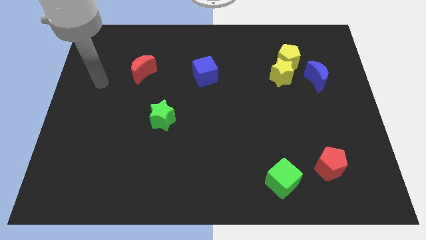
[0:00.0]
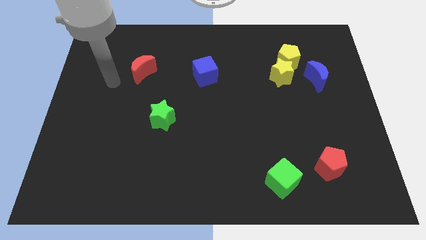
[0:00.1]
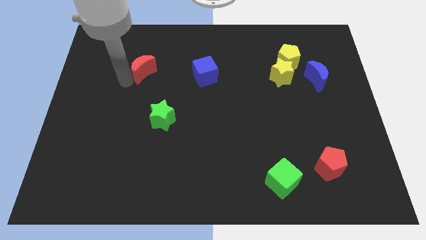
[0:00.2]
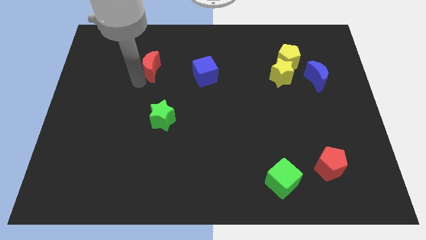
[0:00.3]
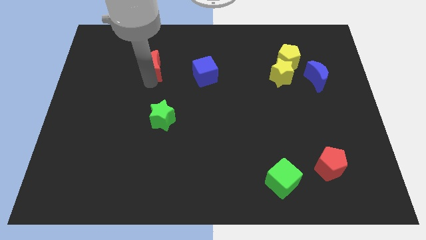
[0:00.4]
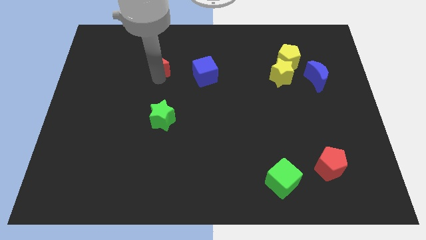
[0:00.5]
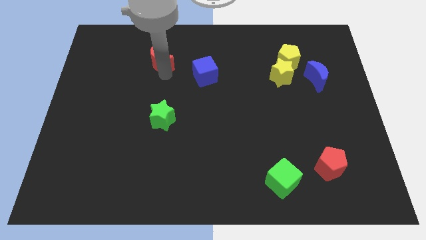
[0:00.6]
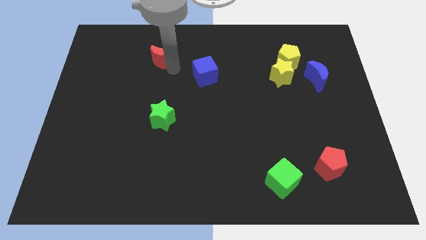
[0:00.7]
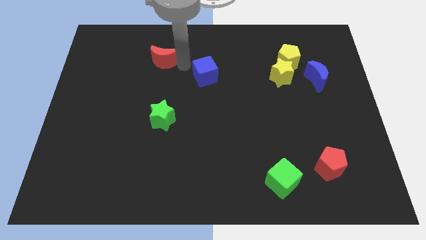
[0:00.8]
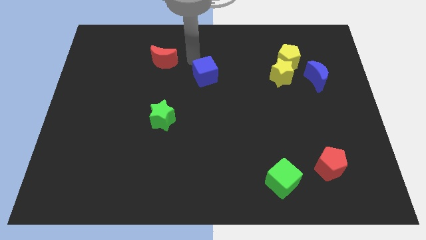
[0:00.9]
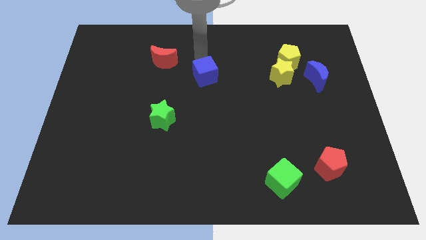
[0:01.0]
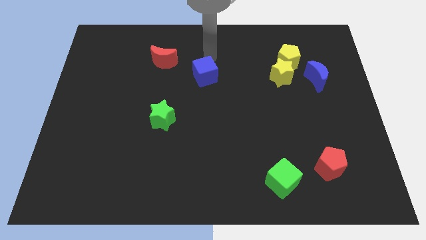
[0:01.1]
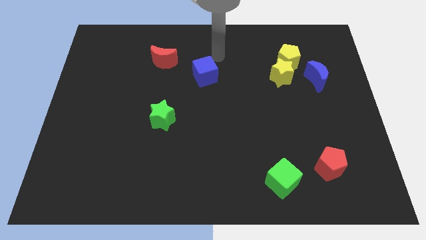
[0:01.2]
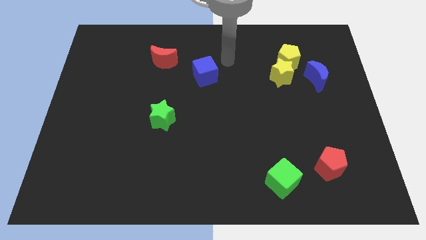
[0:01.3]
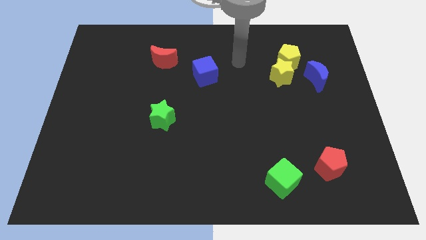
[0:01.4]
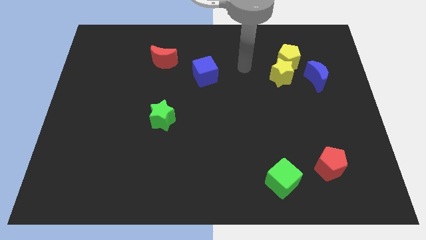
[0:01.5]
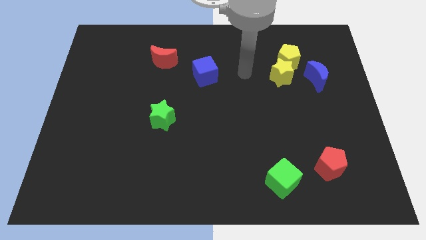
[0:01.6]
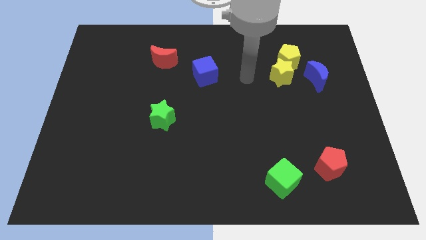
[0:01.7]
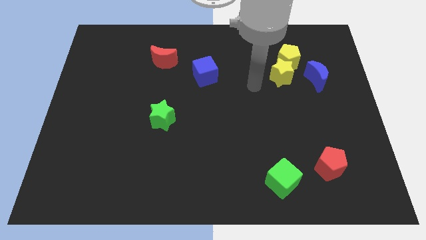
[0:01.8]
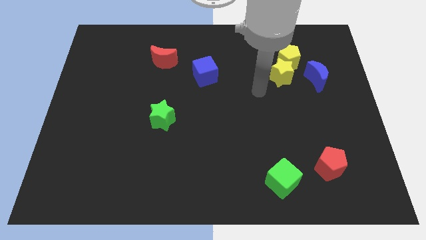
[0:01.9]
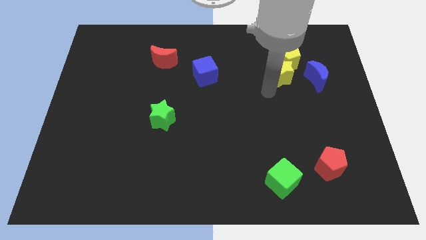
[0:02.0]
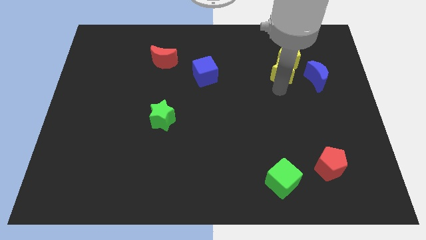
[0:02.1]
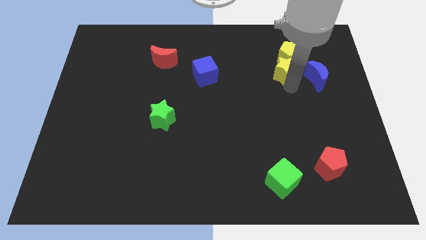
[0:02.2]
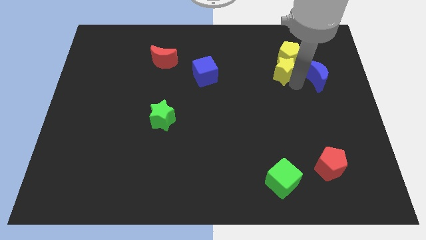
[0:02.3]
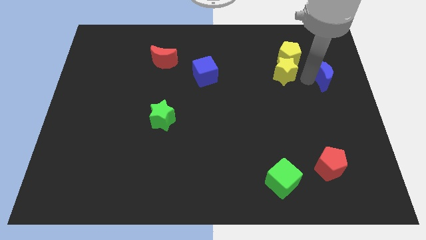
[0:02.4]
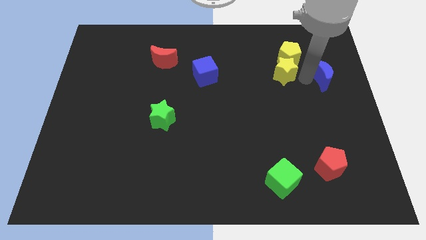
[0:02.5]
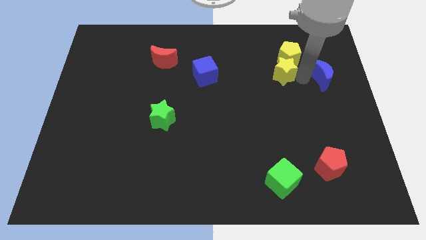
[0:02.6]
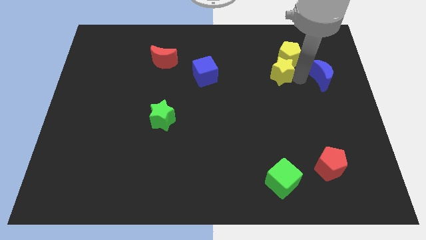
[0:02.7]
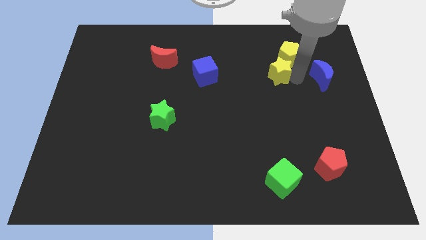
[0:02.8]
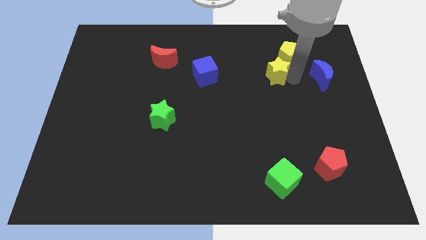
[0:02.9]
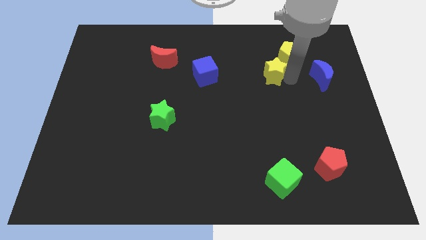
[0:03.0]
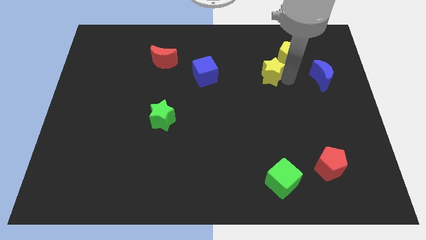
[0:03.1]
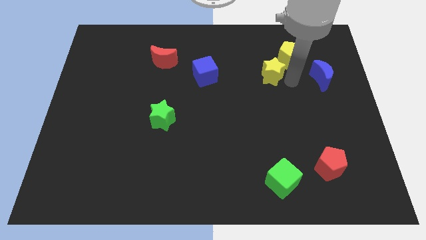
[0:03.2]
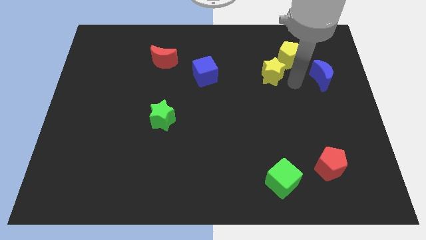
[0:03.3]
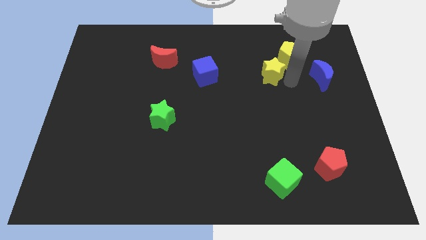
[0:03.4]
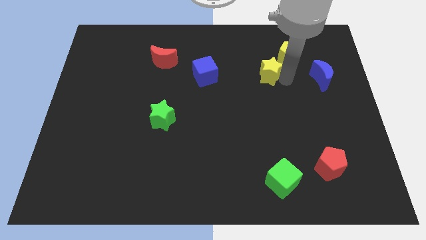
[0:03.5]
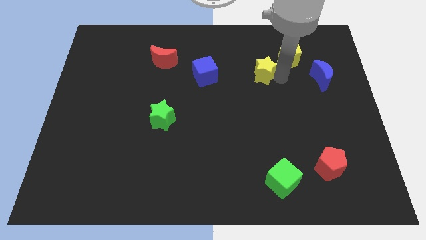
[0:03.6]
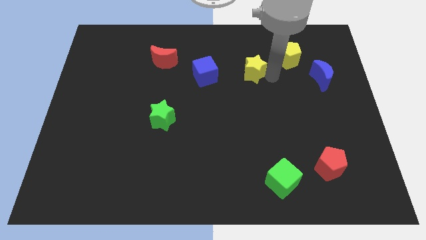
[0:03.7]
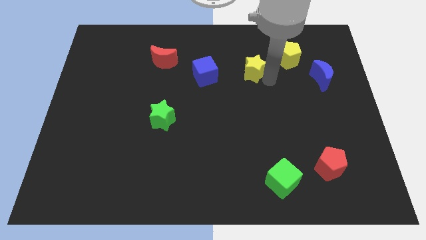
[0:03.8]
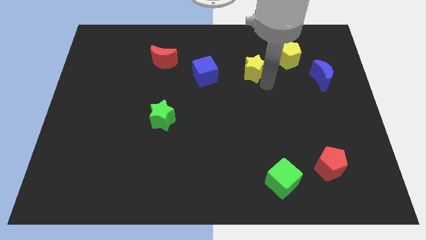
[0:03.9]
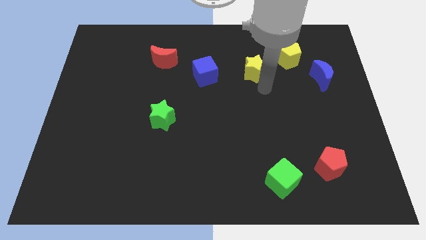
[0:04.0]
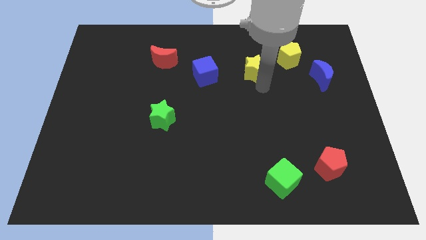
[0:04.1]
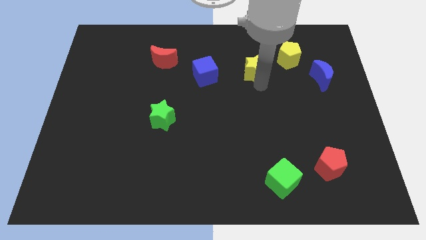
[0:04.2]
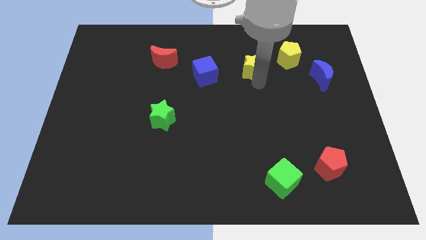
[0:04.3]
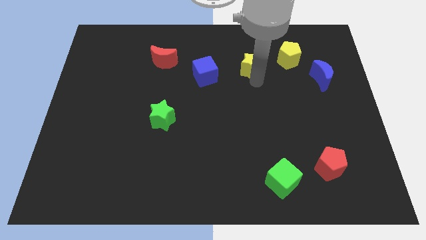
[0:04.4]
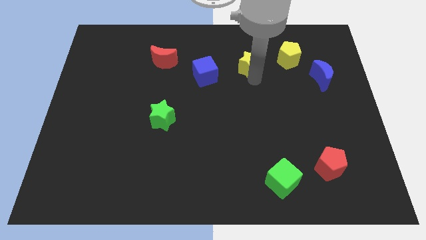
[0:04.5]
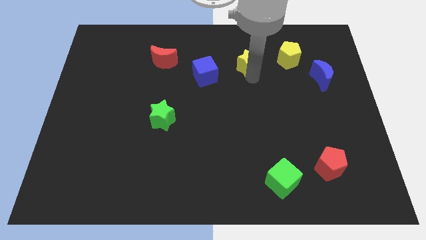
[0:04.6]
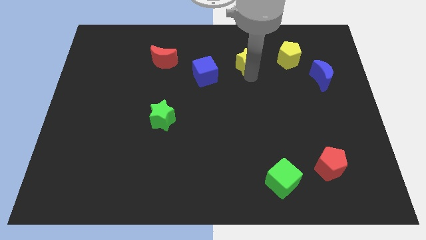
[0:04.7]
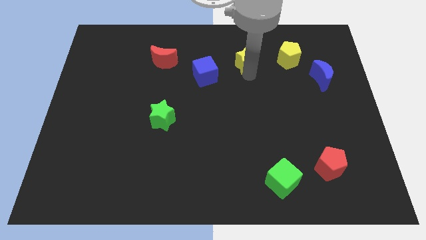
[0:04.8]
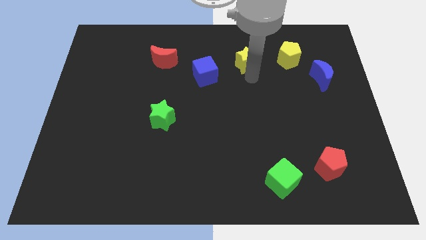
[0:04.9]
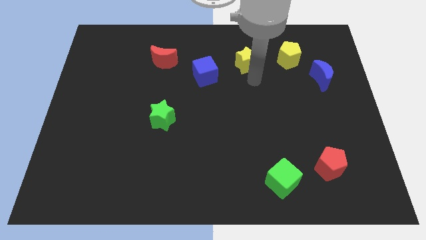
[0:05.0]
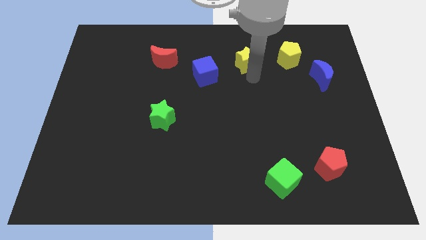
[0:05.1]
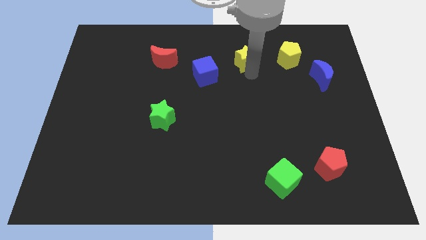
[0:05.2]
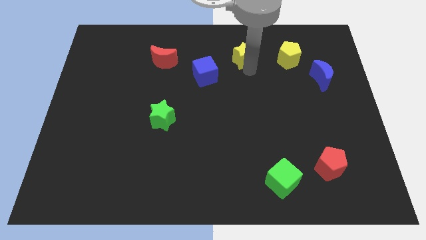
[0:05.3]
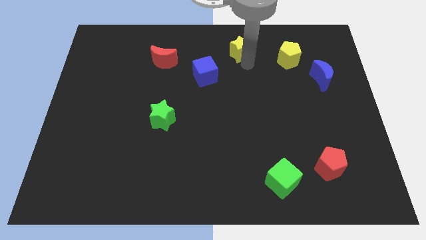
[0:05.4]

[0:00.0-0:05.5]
push the yellow star to the top

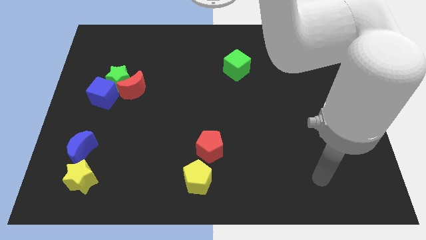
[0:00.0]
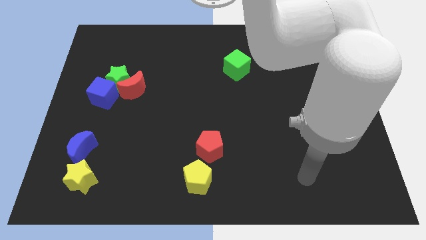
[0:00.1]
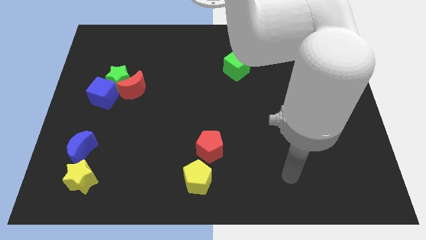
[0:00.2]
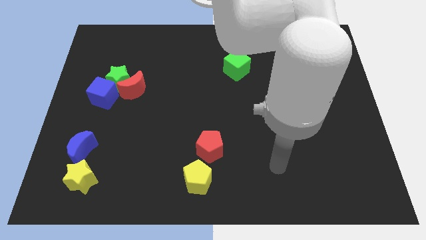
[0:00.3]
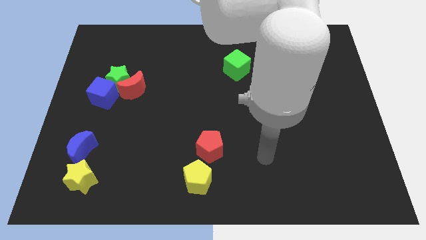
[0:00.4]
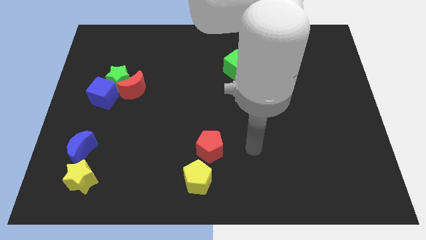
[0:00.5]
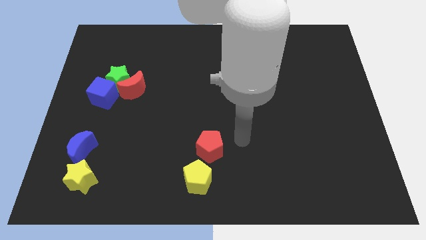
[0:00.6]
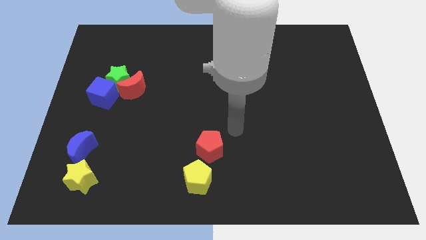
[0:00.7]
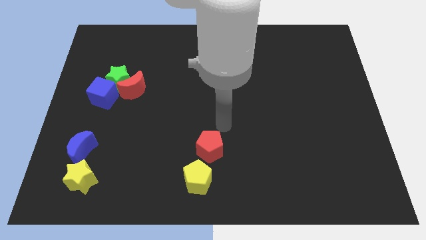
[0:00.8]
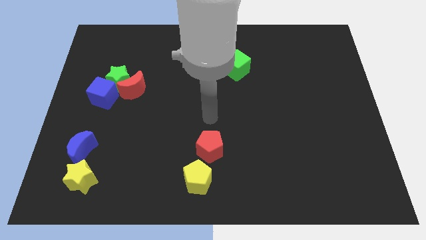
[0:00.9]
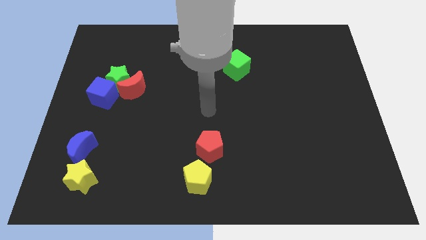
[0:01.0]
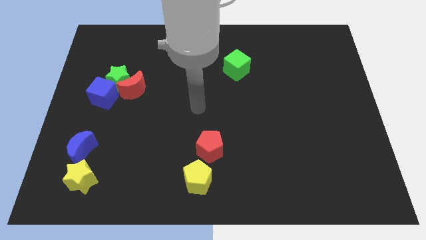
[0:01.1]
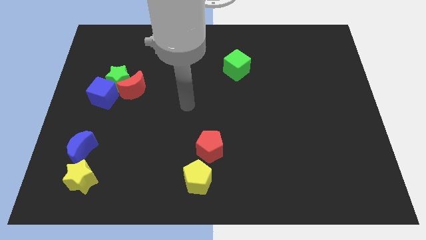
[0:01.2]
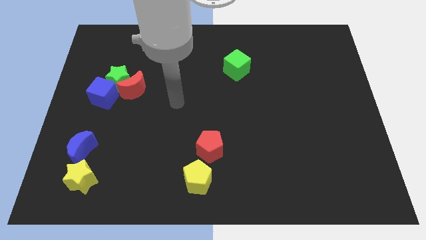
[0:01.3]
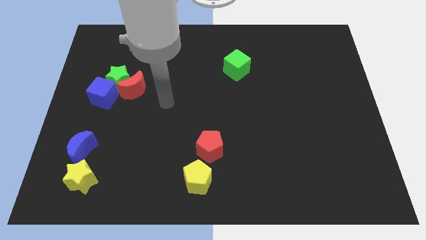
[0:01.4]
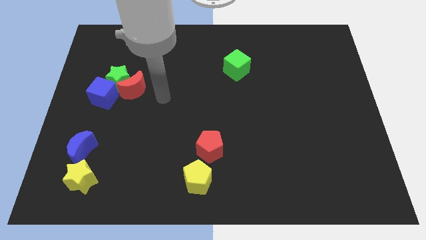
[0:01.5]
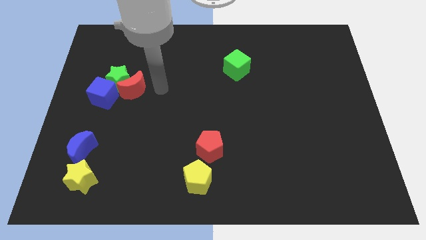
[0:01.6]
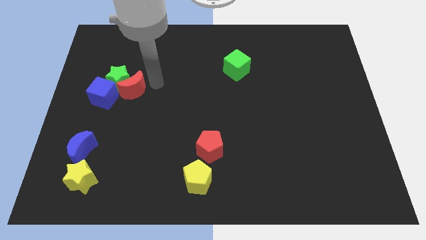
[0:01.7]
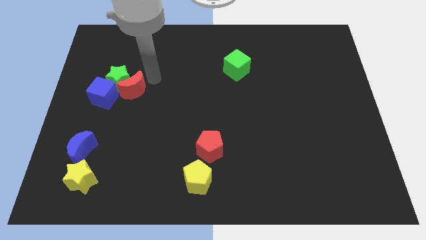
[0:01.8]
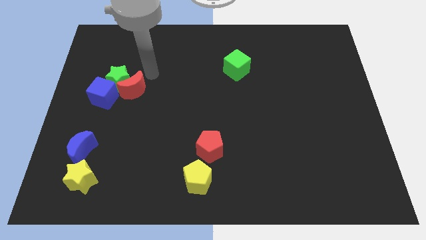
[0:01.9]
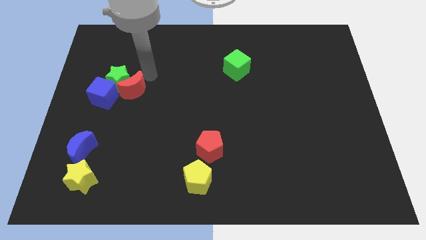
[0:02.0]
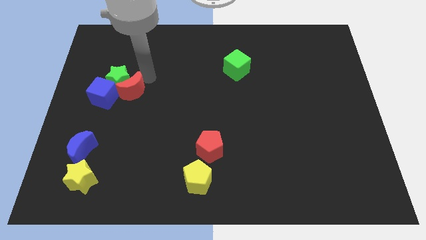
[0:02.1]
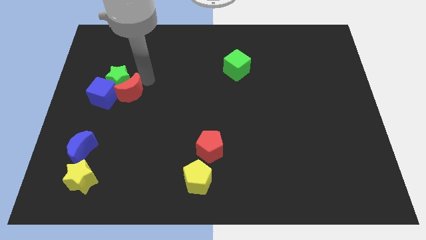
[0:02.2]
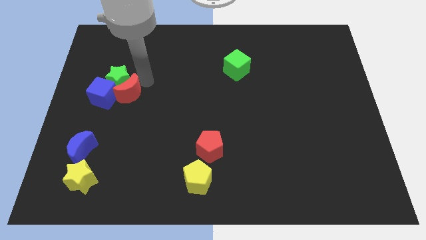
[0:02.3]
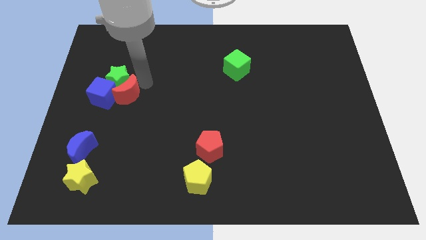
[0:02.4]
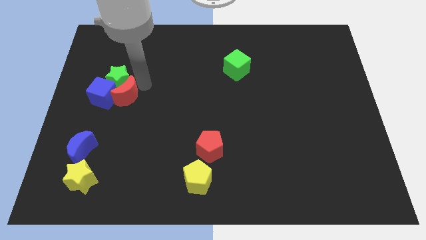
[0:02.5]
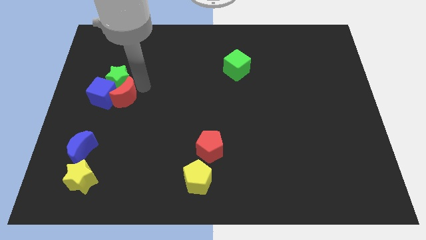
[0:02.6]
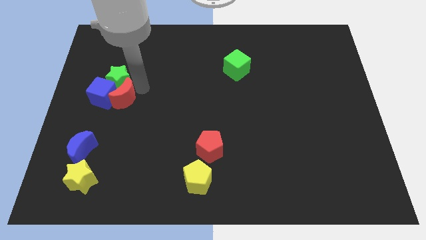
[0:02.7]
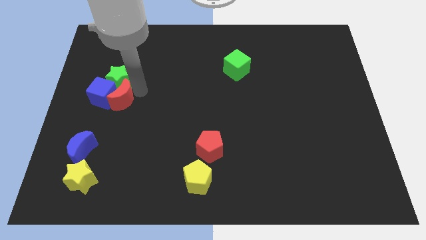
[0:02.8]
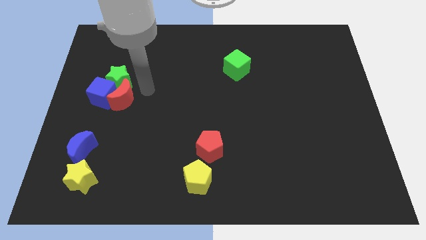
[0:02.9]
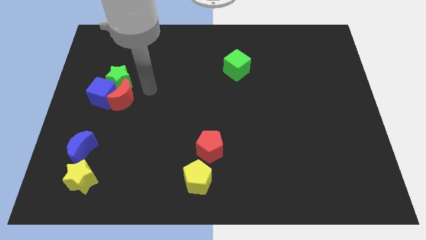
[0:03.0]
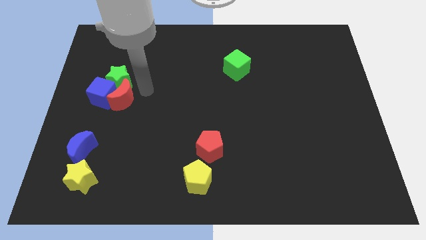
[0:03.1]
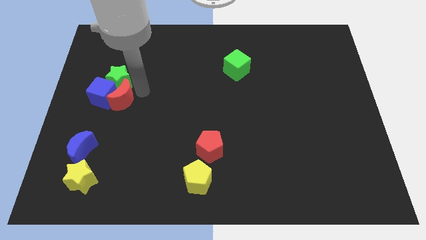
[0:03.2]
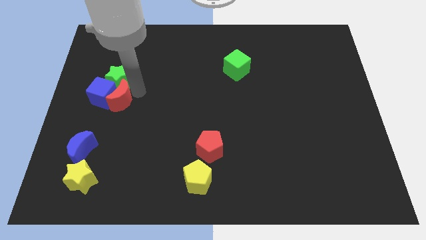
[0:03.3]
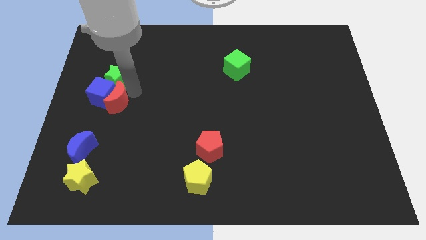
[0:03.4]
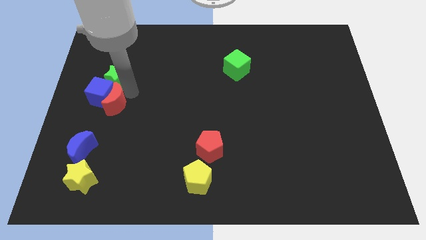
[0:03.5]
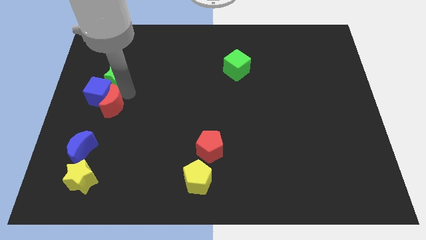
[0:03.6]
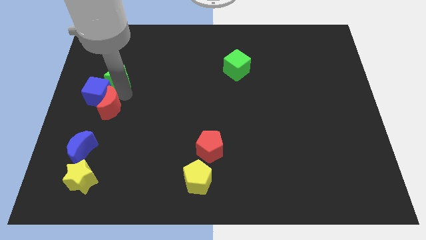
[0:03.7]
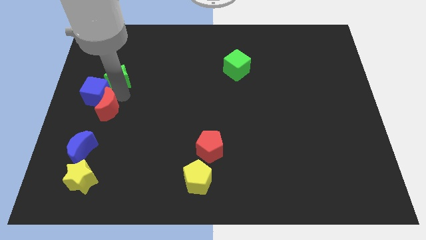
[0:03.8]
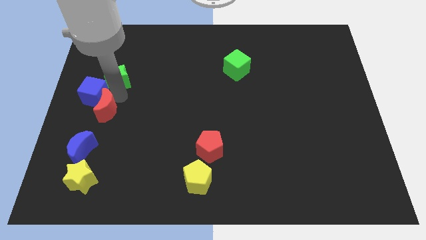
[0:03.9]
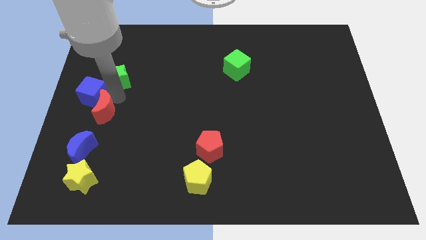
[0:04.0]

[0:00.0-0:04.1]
slide the red moon to the center left
